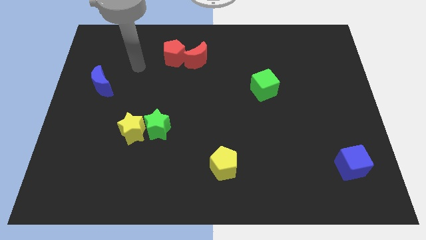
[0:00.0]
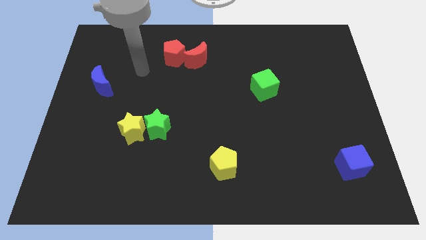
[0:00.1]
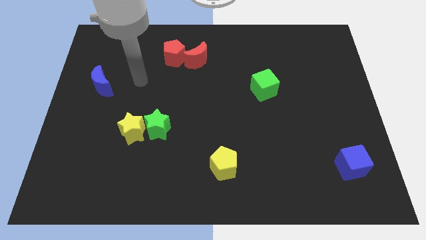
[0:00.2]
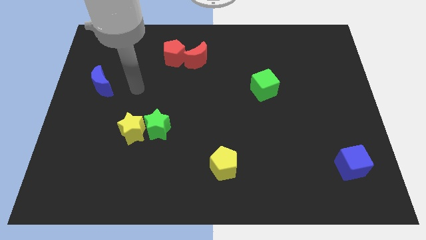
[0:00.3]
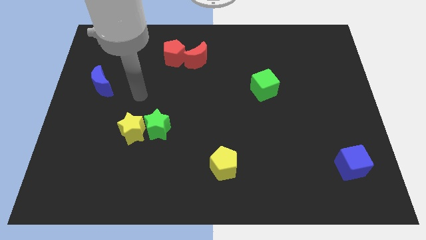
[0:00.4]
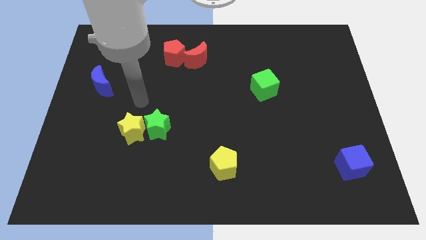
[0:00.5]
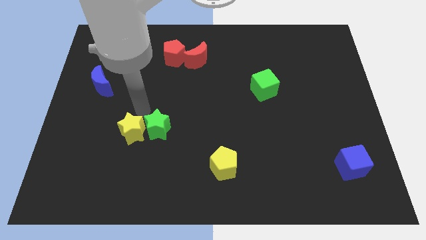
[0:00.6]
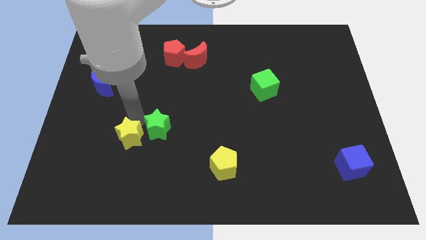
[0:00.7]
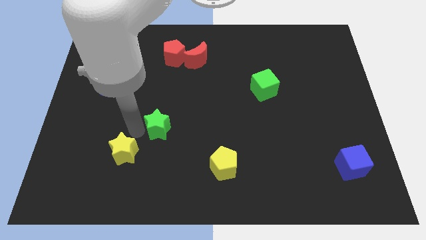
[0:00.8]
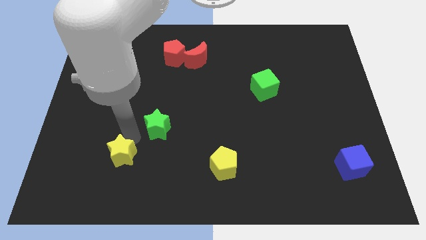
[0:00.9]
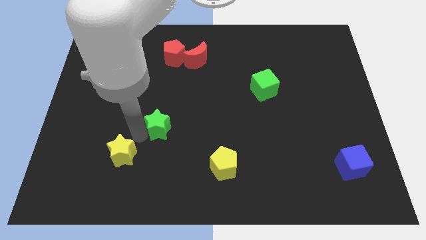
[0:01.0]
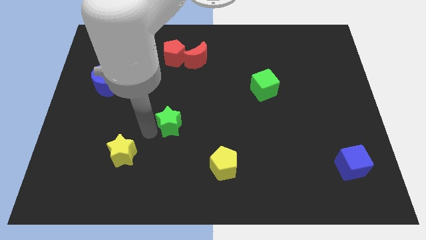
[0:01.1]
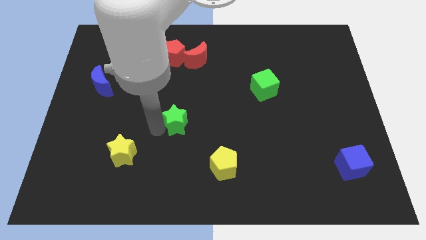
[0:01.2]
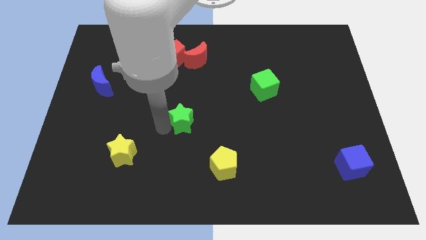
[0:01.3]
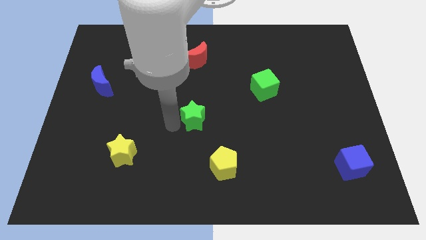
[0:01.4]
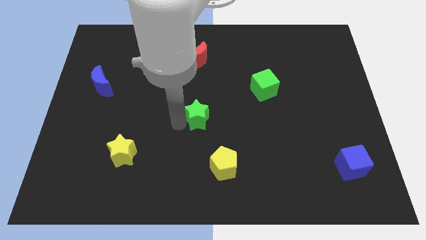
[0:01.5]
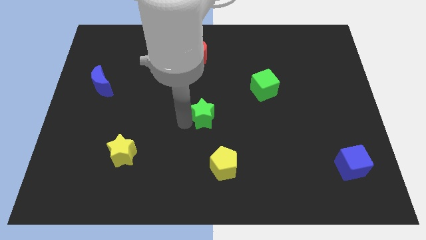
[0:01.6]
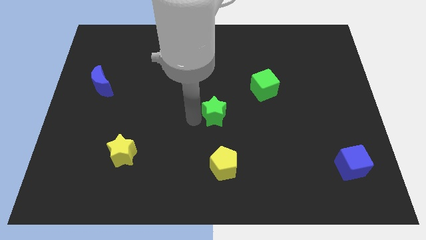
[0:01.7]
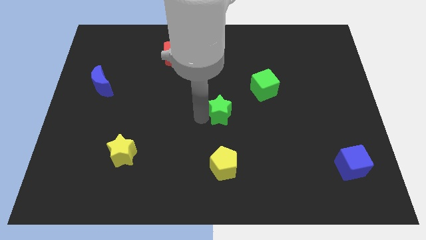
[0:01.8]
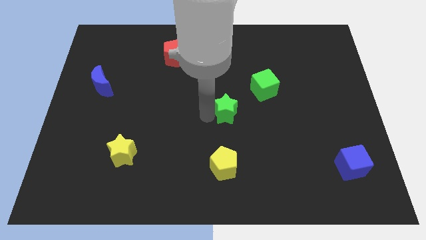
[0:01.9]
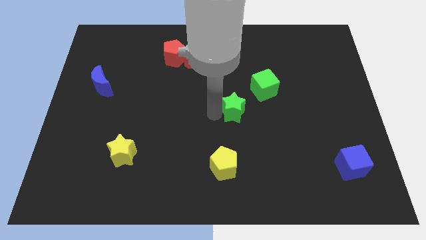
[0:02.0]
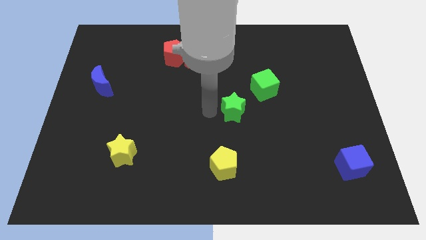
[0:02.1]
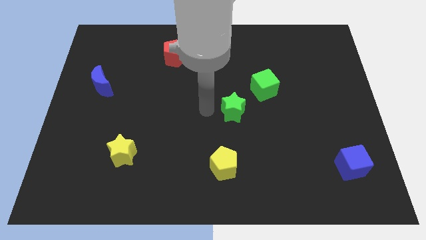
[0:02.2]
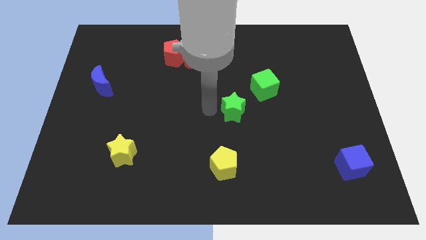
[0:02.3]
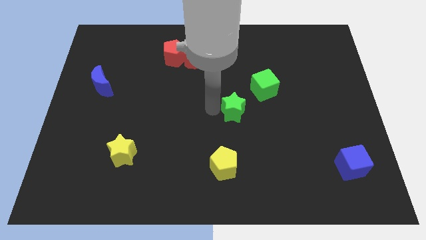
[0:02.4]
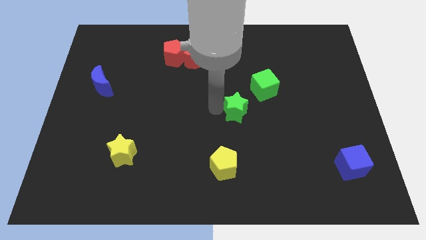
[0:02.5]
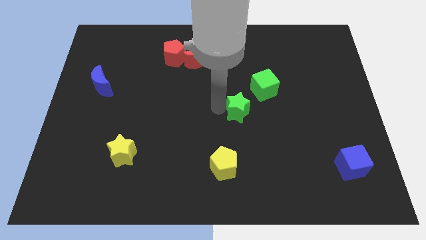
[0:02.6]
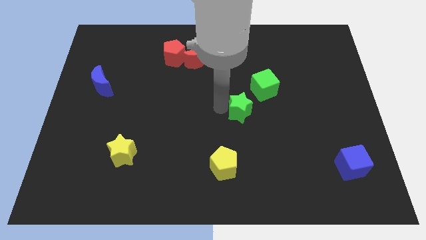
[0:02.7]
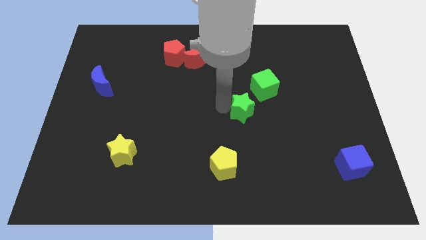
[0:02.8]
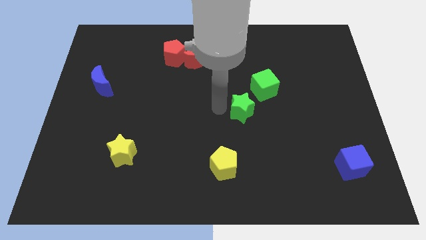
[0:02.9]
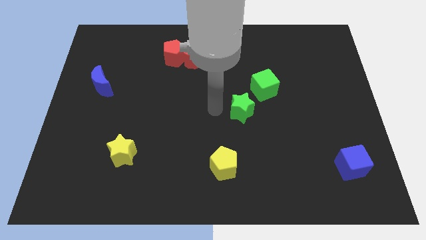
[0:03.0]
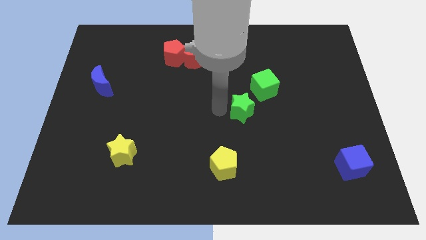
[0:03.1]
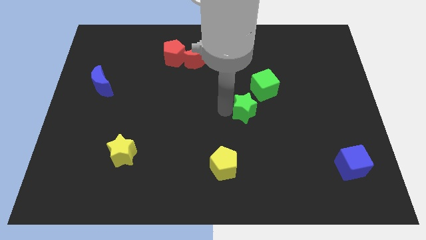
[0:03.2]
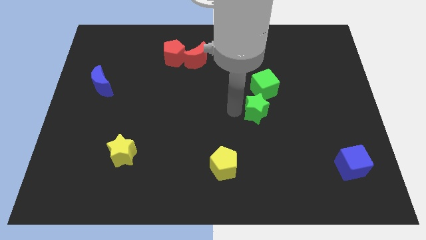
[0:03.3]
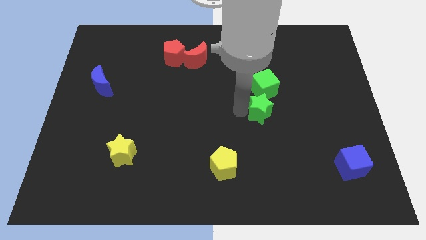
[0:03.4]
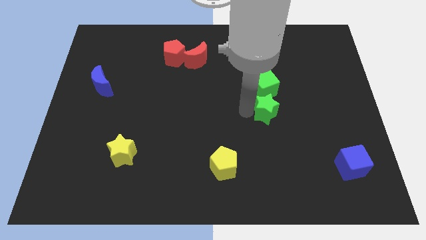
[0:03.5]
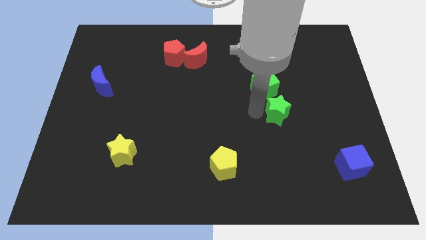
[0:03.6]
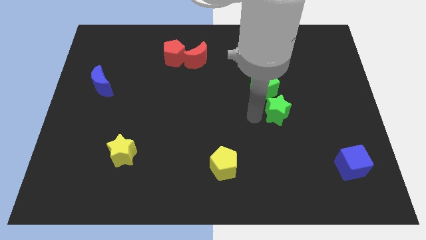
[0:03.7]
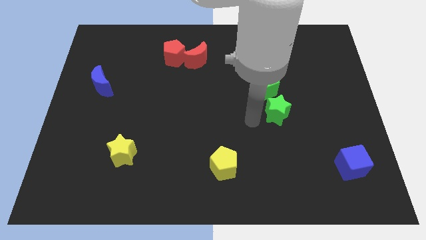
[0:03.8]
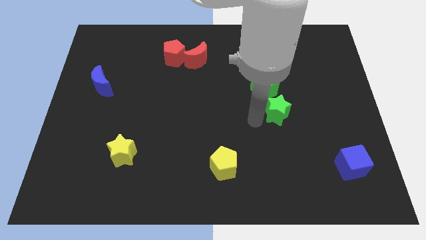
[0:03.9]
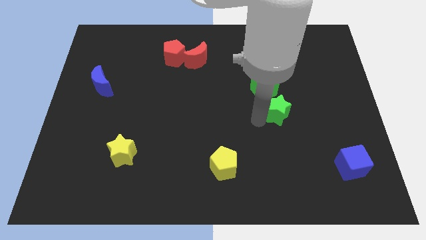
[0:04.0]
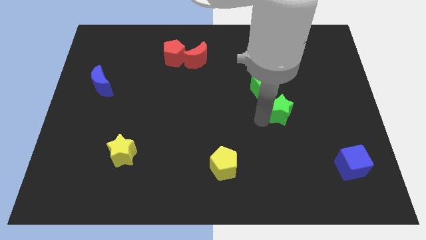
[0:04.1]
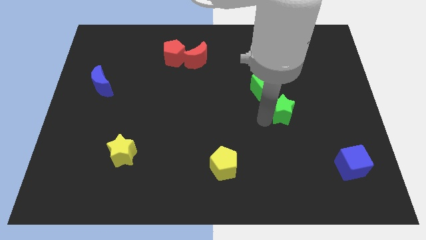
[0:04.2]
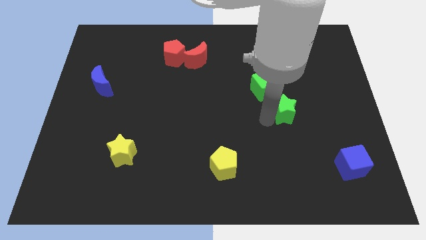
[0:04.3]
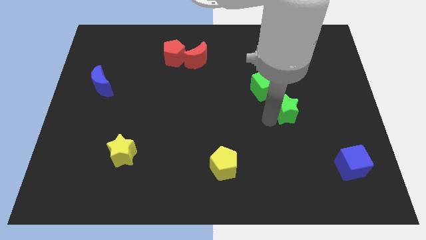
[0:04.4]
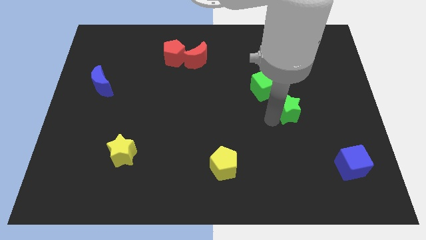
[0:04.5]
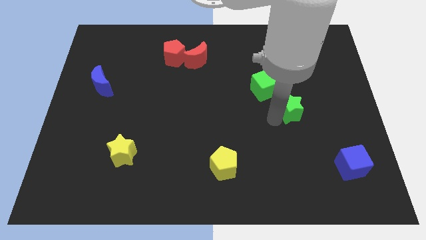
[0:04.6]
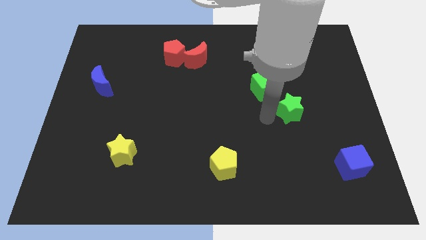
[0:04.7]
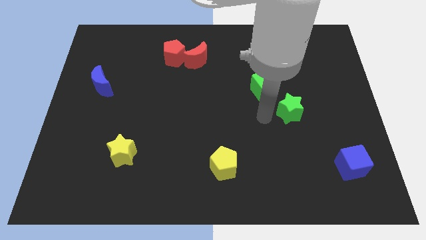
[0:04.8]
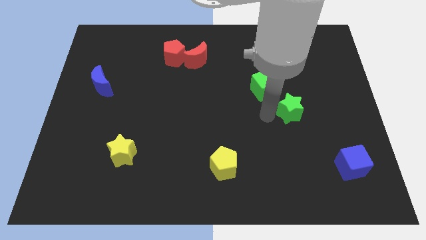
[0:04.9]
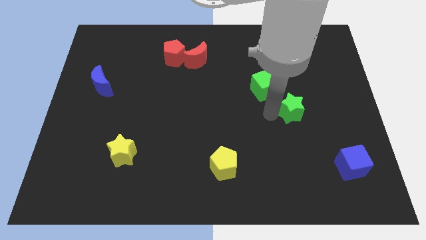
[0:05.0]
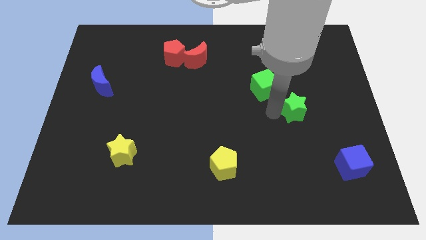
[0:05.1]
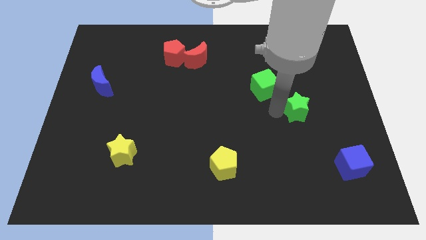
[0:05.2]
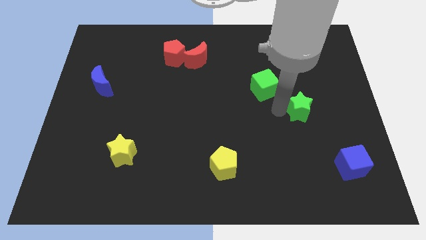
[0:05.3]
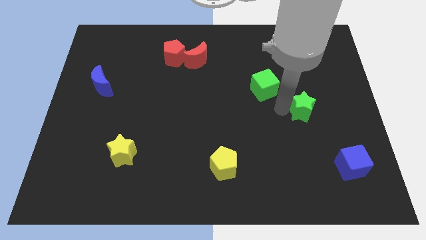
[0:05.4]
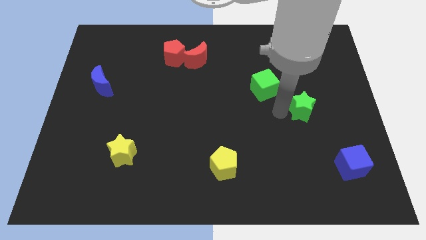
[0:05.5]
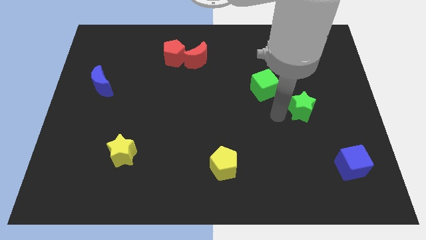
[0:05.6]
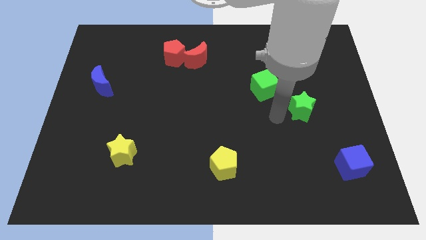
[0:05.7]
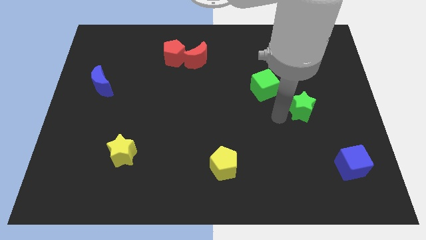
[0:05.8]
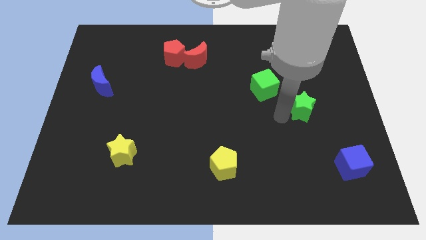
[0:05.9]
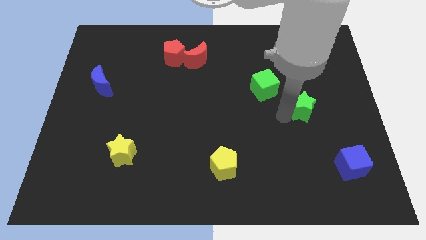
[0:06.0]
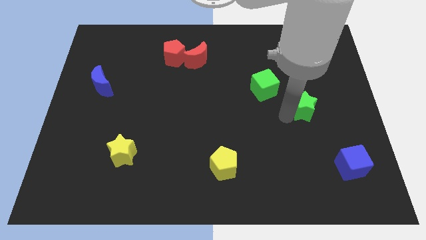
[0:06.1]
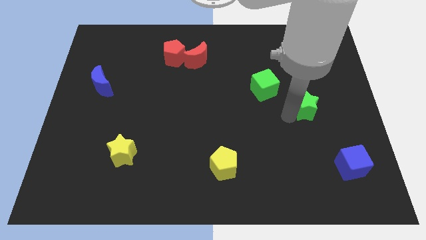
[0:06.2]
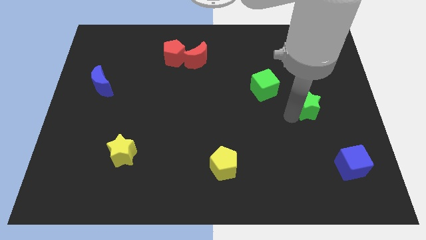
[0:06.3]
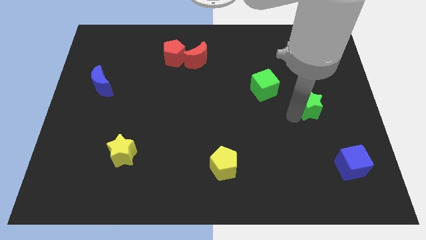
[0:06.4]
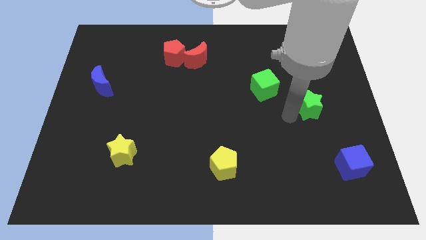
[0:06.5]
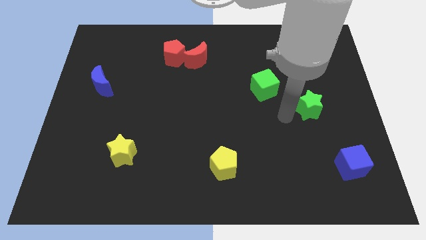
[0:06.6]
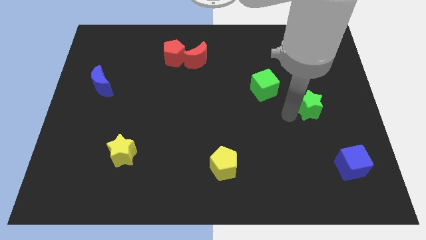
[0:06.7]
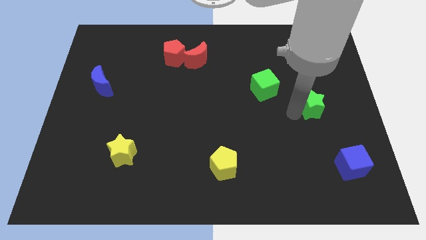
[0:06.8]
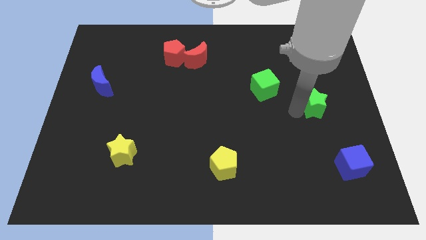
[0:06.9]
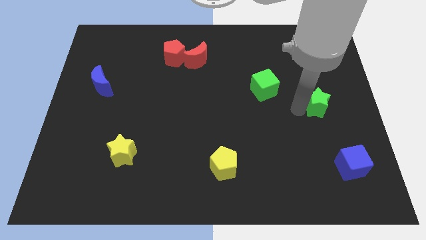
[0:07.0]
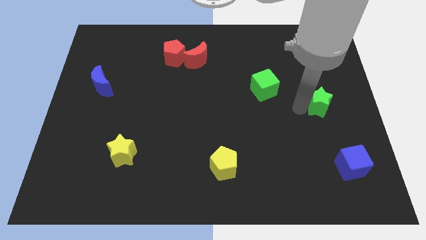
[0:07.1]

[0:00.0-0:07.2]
push the green star to the right side
